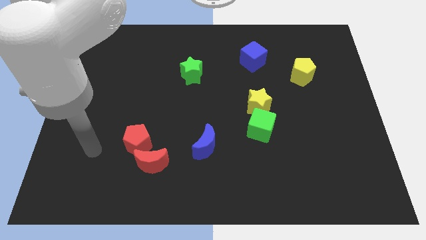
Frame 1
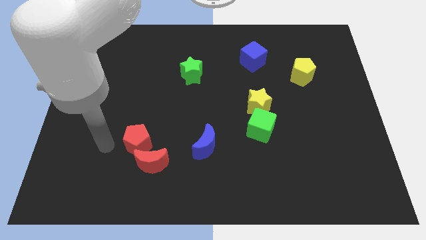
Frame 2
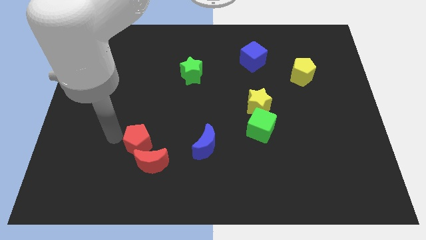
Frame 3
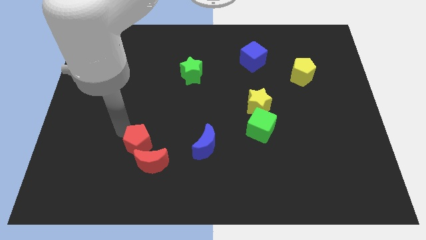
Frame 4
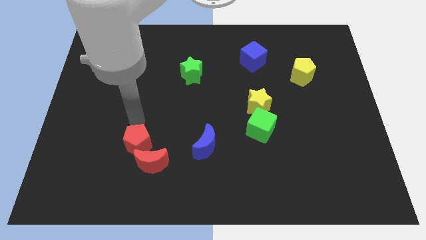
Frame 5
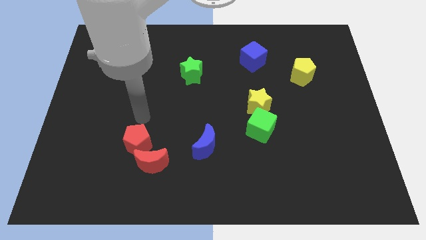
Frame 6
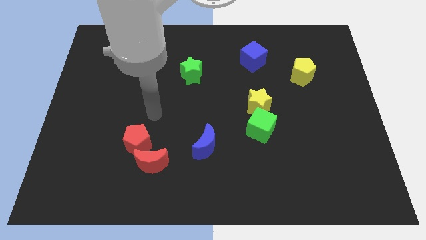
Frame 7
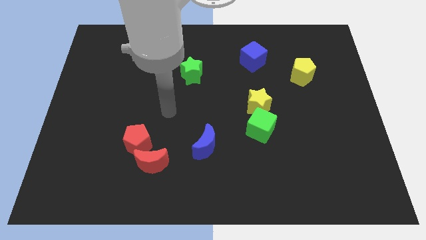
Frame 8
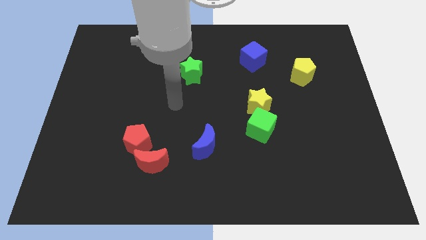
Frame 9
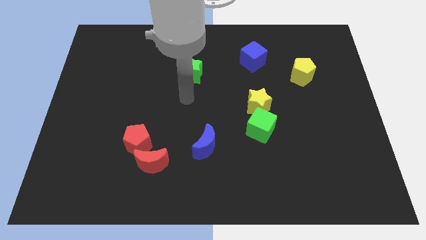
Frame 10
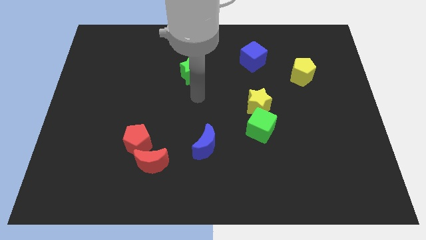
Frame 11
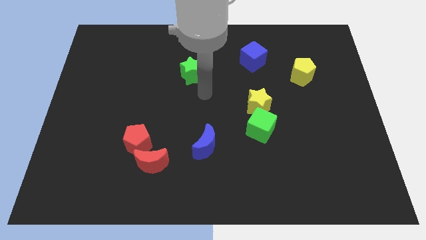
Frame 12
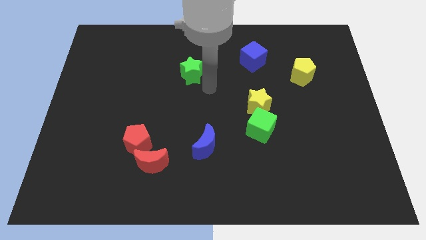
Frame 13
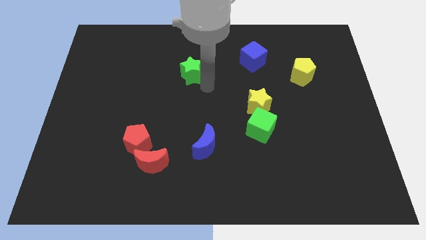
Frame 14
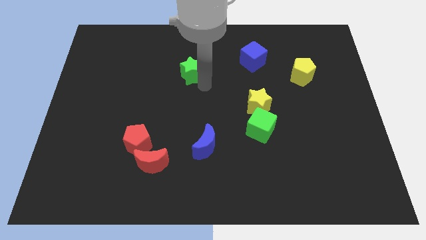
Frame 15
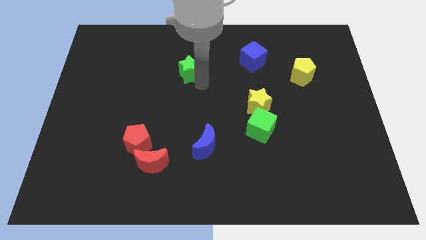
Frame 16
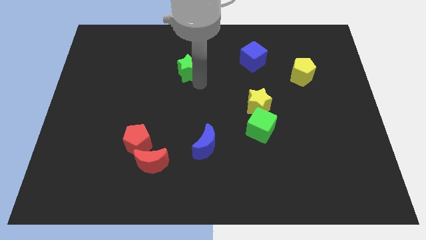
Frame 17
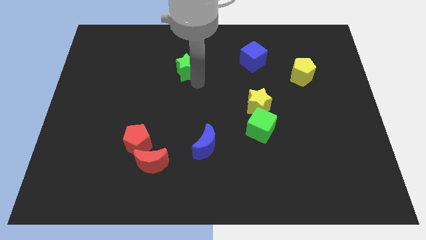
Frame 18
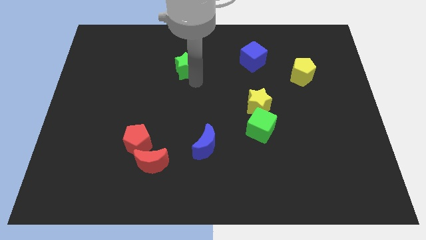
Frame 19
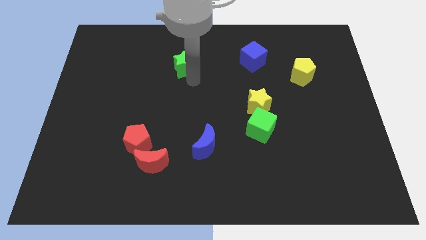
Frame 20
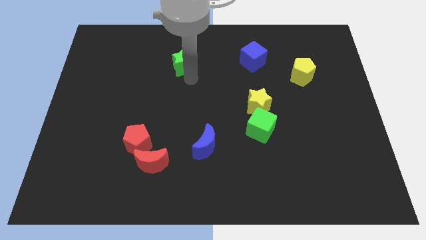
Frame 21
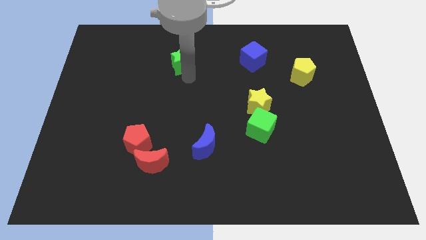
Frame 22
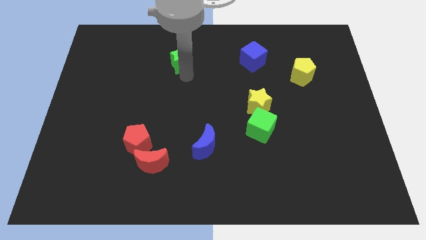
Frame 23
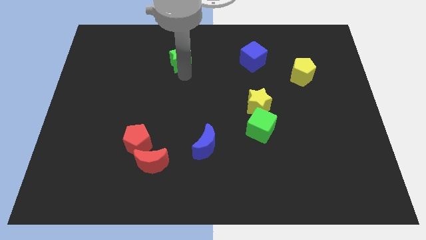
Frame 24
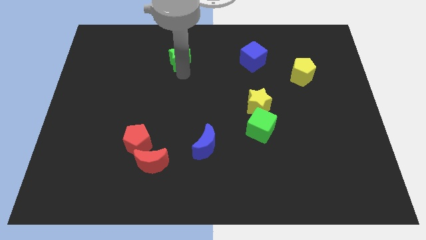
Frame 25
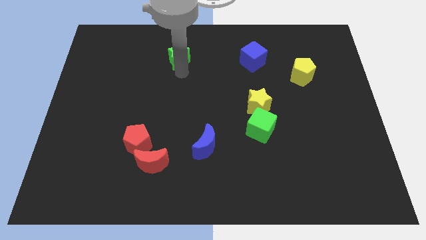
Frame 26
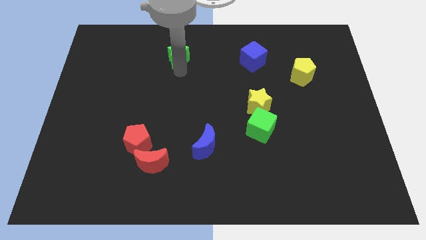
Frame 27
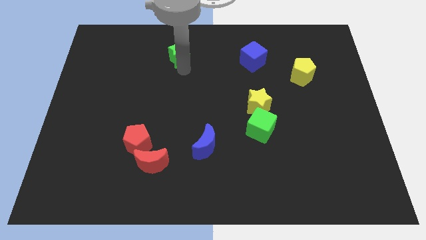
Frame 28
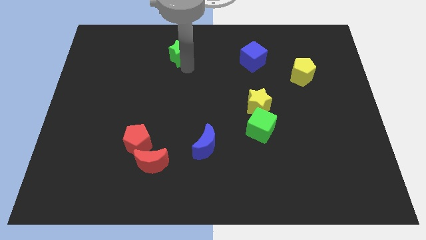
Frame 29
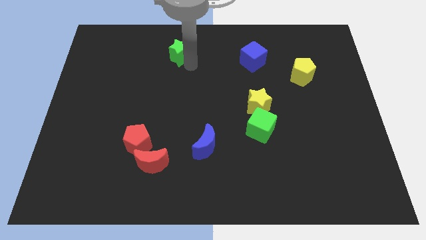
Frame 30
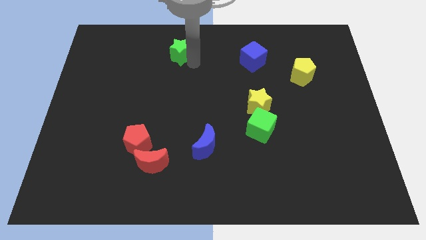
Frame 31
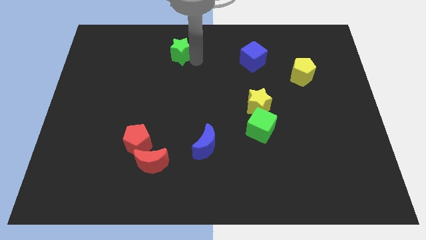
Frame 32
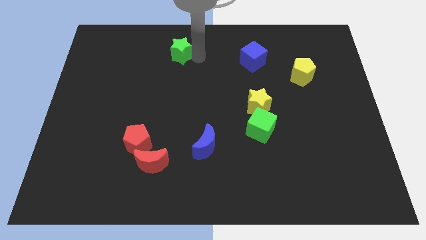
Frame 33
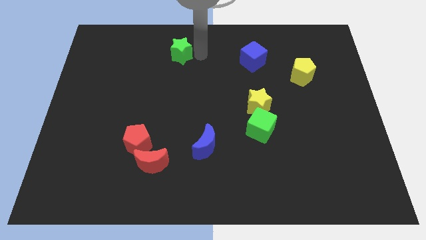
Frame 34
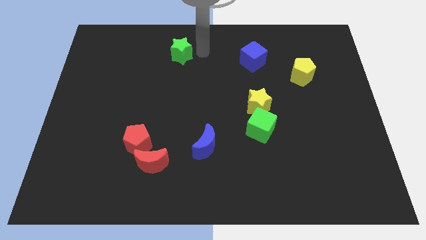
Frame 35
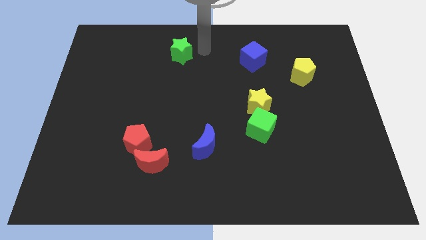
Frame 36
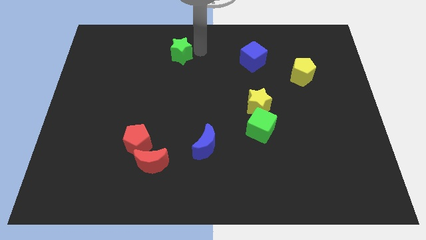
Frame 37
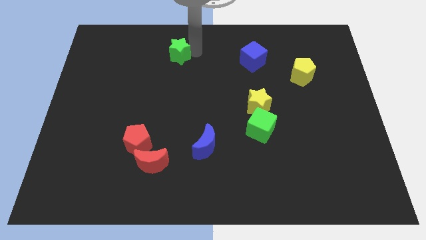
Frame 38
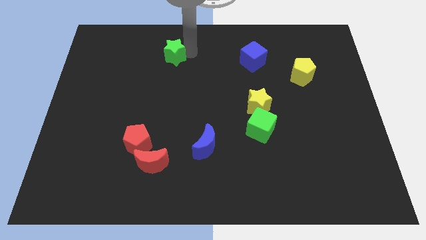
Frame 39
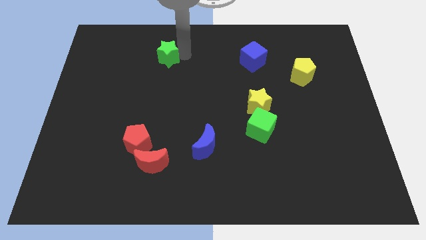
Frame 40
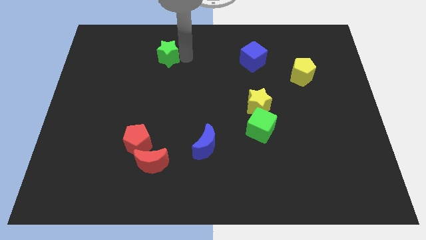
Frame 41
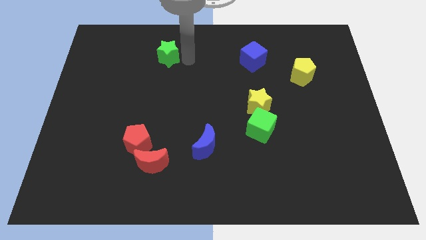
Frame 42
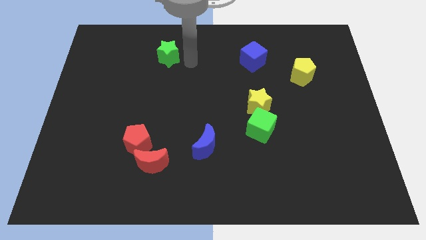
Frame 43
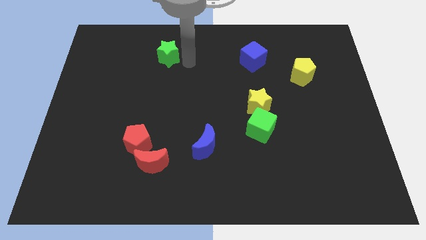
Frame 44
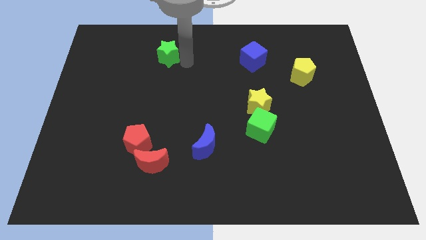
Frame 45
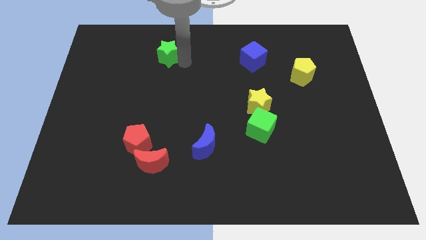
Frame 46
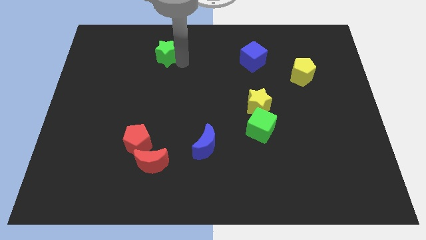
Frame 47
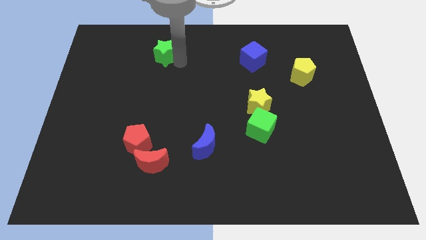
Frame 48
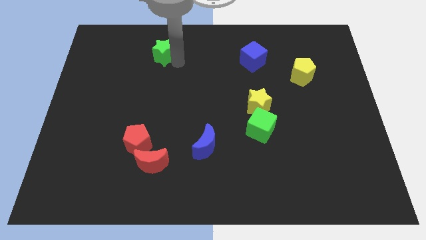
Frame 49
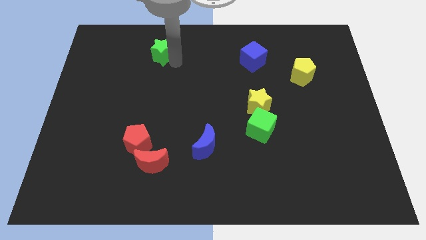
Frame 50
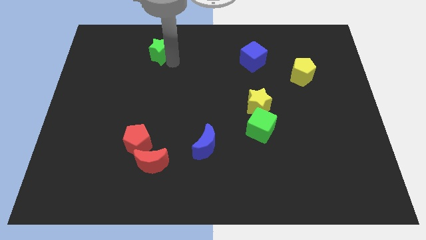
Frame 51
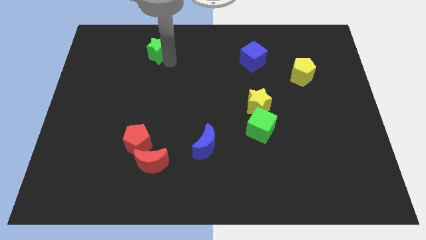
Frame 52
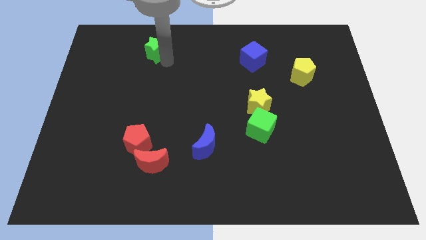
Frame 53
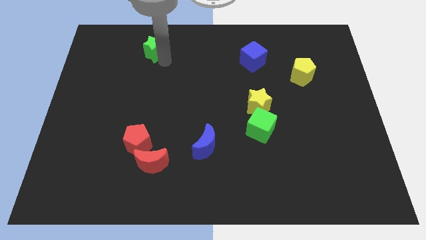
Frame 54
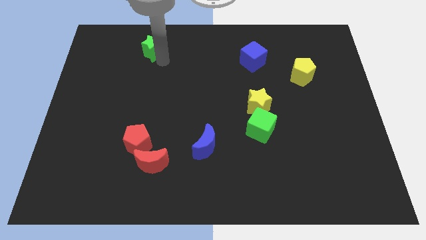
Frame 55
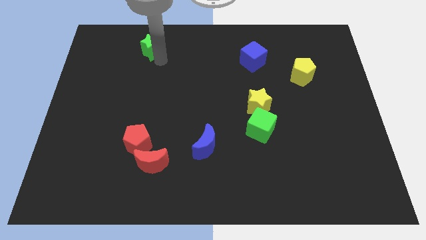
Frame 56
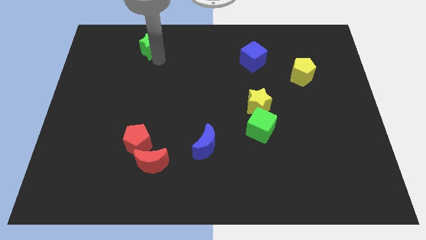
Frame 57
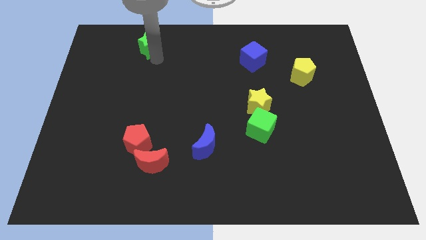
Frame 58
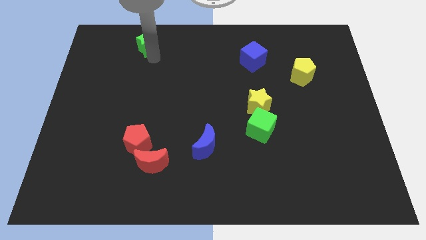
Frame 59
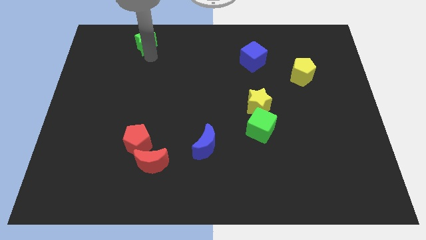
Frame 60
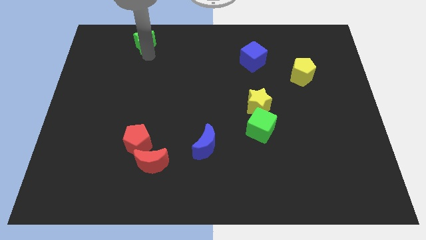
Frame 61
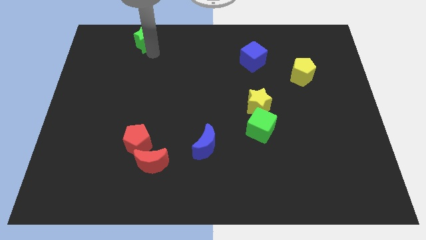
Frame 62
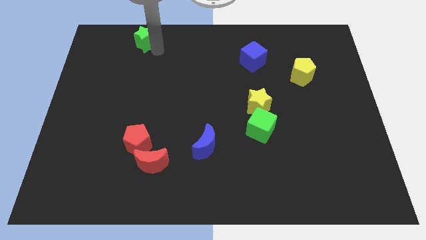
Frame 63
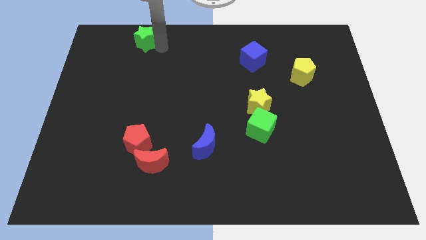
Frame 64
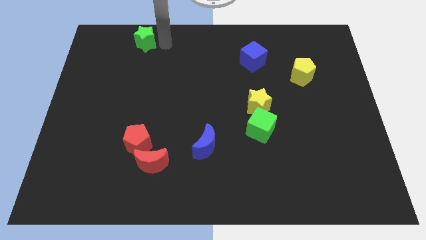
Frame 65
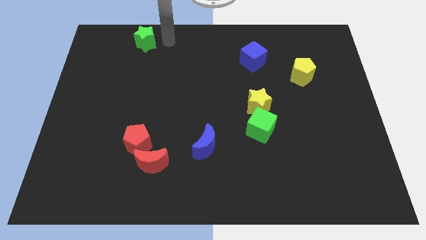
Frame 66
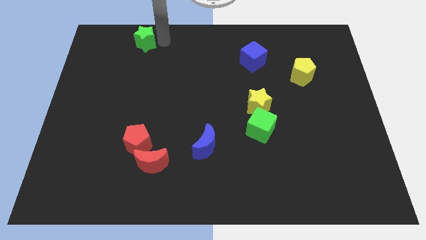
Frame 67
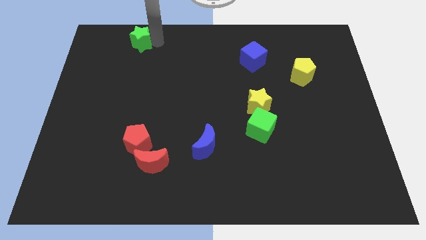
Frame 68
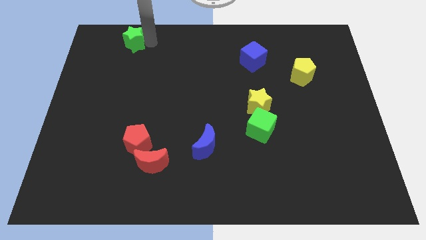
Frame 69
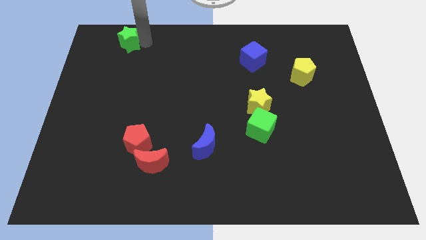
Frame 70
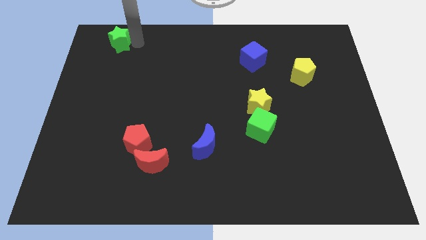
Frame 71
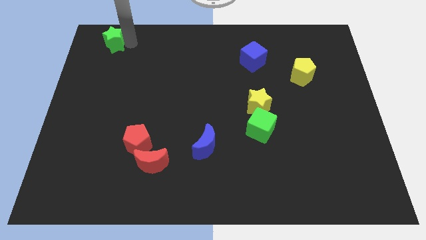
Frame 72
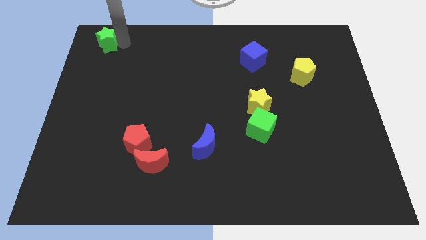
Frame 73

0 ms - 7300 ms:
move the green star to the top left corner

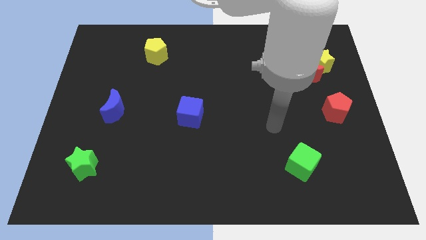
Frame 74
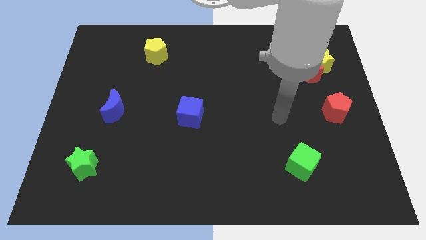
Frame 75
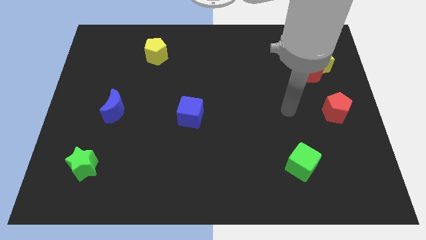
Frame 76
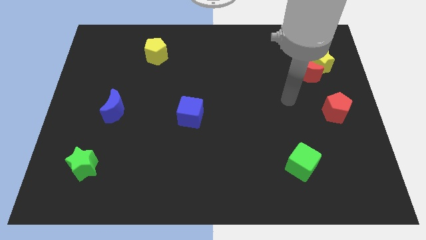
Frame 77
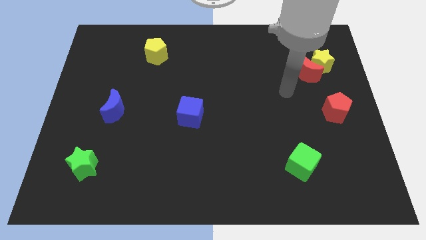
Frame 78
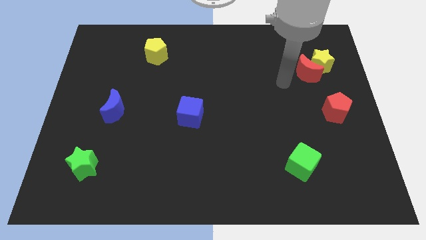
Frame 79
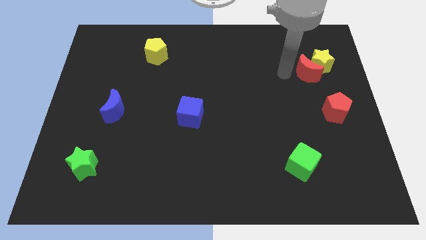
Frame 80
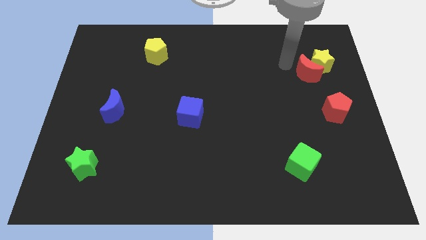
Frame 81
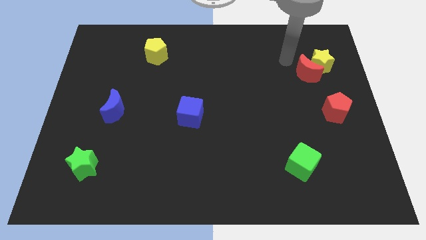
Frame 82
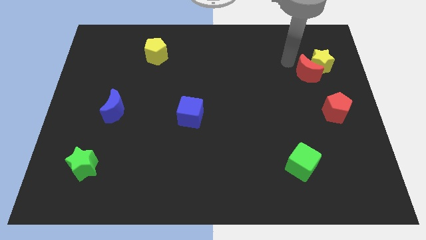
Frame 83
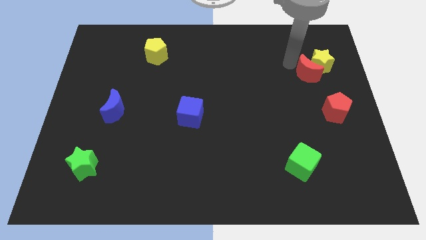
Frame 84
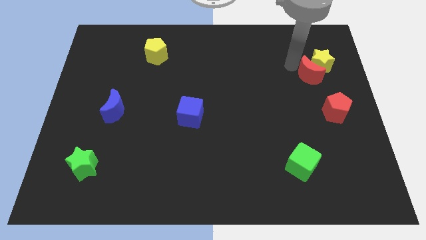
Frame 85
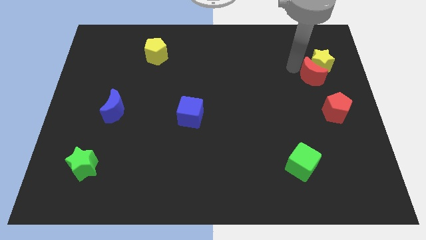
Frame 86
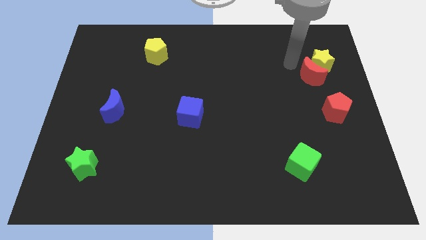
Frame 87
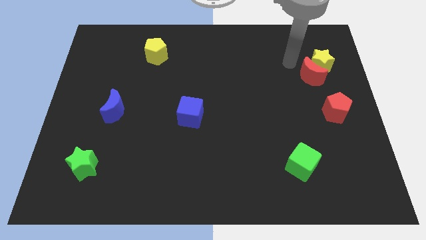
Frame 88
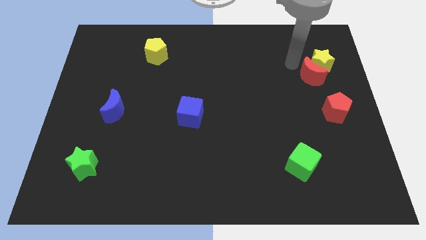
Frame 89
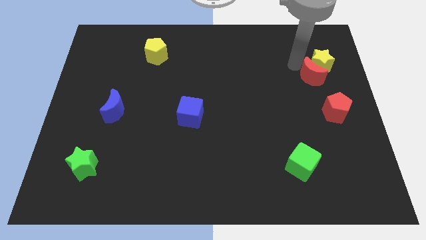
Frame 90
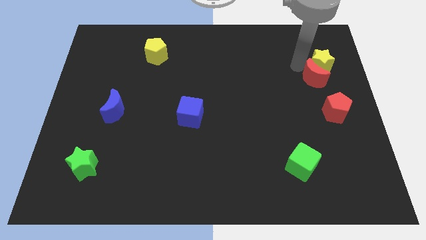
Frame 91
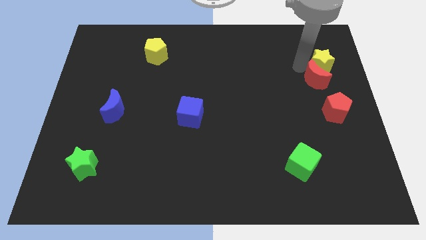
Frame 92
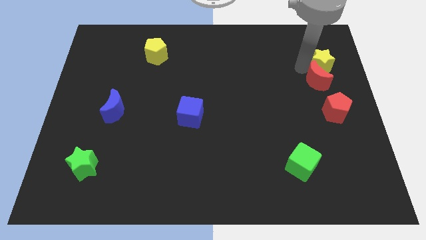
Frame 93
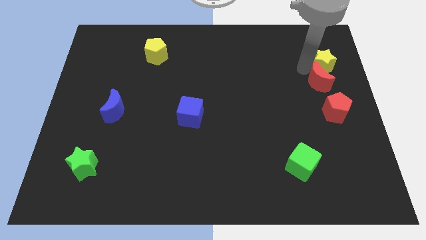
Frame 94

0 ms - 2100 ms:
slide the red moon to the right side of the board
